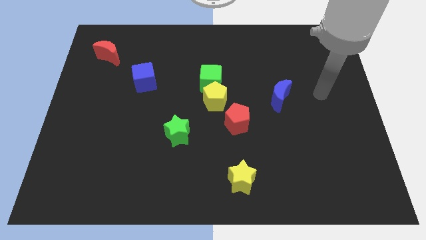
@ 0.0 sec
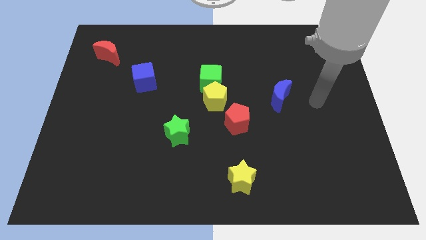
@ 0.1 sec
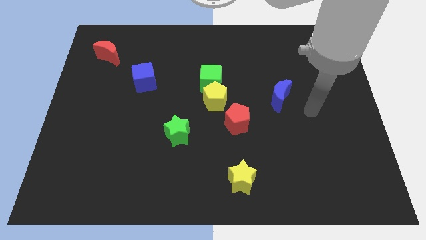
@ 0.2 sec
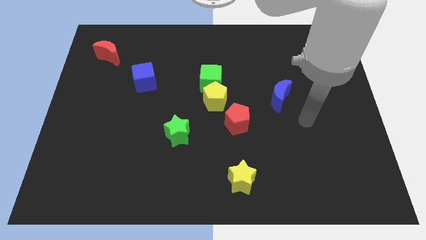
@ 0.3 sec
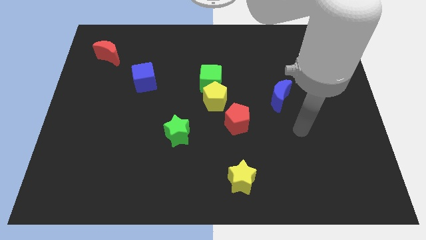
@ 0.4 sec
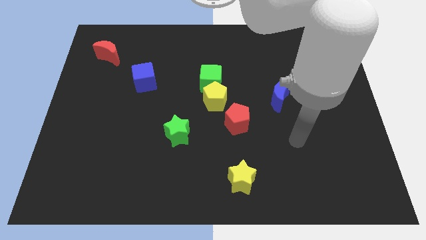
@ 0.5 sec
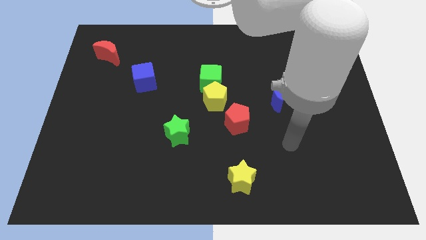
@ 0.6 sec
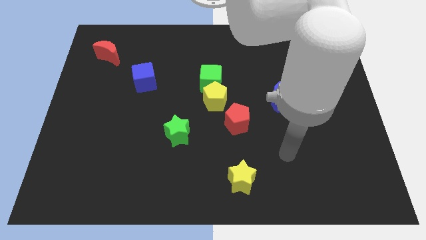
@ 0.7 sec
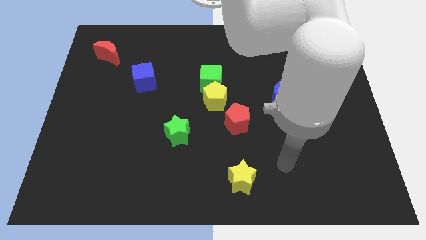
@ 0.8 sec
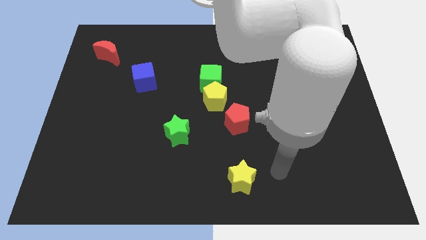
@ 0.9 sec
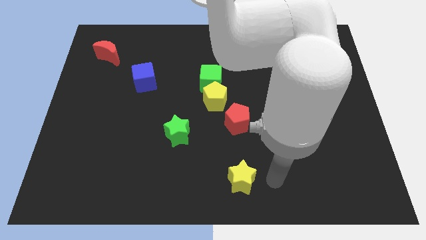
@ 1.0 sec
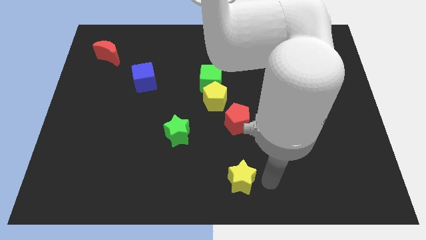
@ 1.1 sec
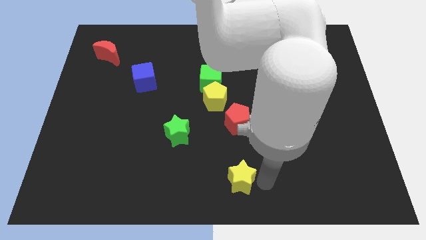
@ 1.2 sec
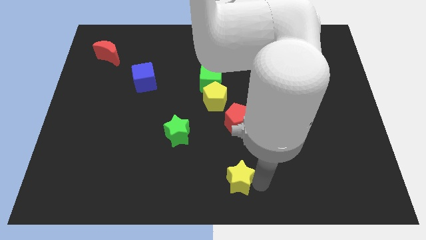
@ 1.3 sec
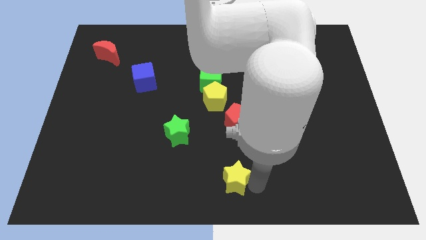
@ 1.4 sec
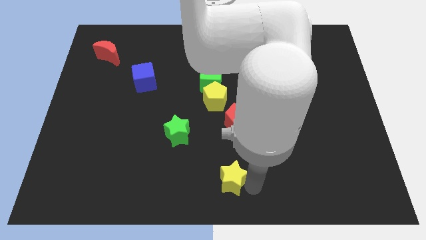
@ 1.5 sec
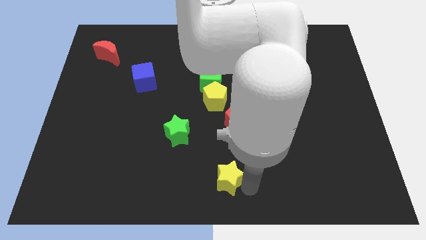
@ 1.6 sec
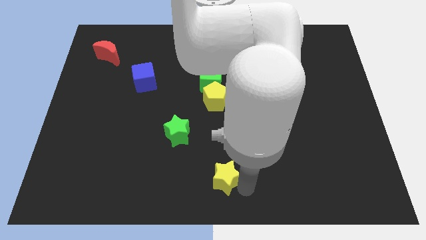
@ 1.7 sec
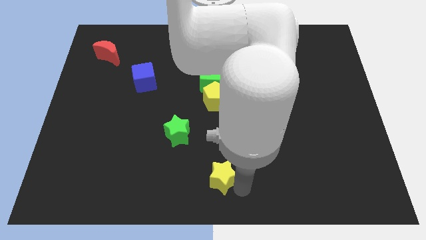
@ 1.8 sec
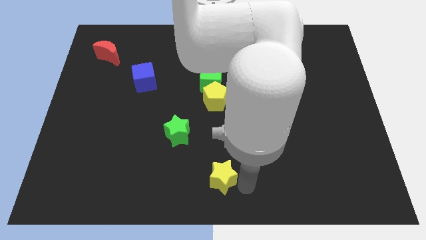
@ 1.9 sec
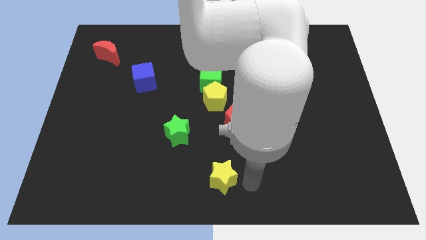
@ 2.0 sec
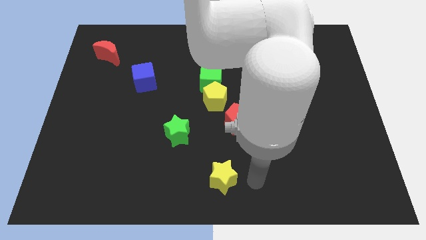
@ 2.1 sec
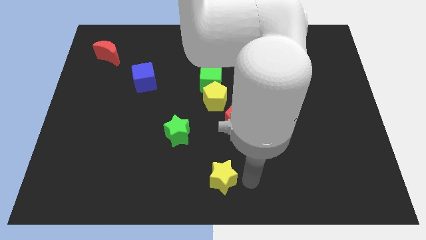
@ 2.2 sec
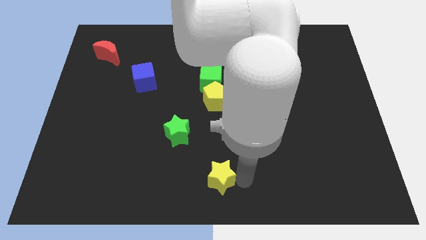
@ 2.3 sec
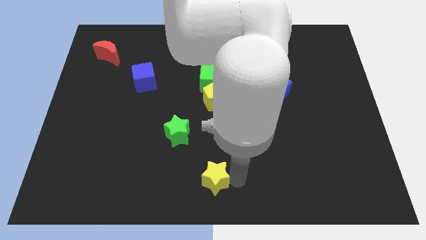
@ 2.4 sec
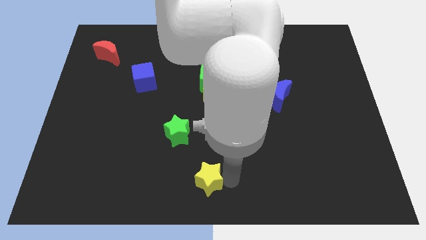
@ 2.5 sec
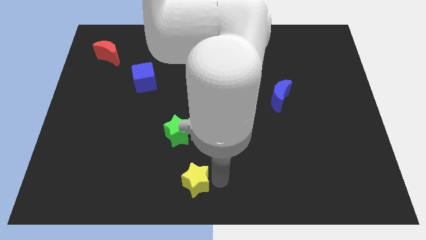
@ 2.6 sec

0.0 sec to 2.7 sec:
move the yellow star slightly left

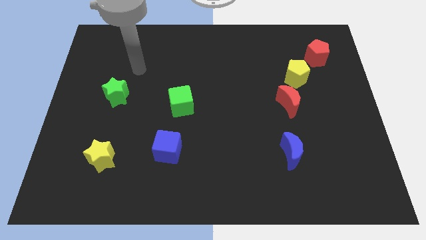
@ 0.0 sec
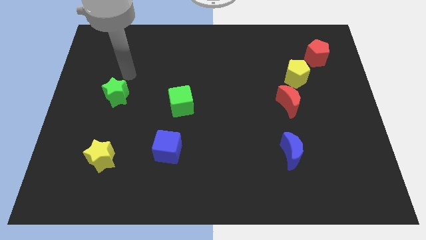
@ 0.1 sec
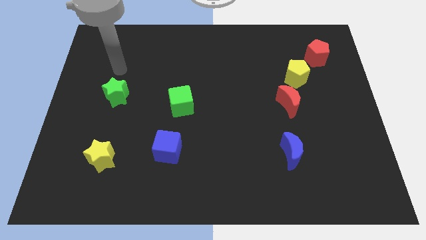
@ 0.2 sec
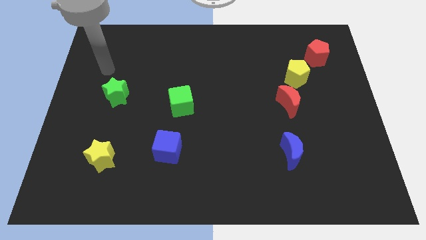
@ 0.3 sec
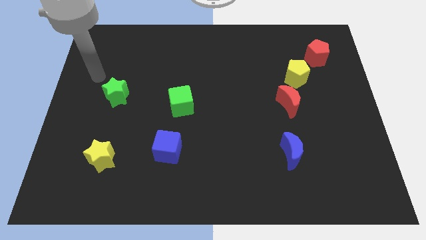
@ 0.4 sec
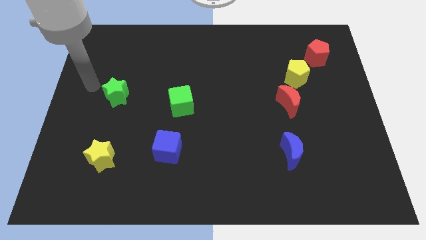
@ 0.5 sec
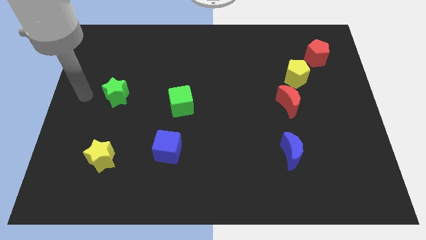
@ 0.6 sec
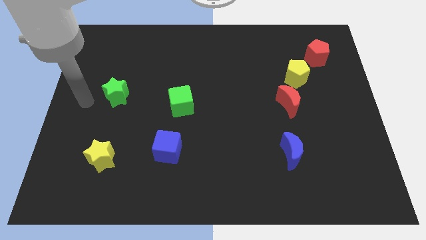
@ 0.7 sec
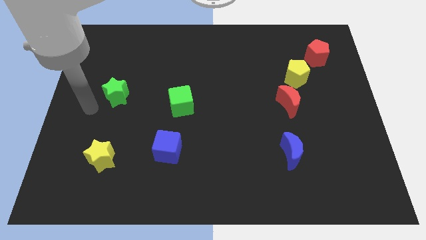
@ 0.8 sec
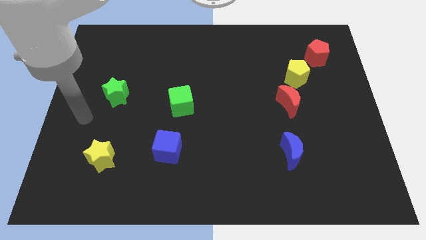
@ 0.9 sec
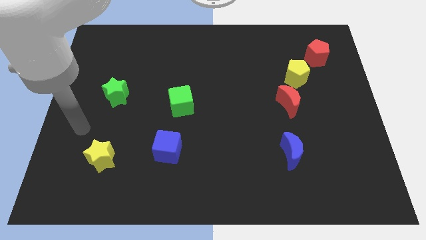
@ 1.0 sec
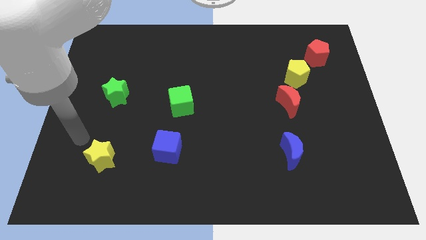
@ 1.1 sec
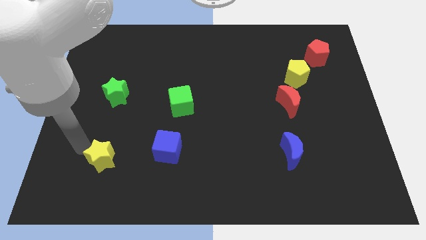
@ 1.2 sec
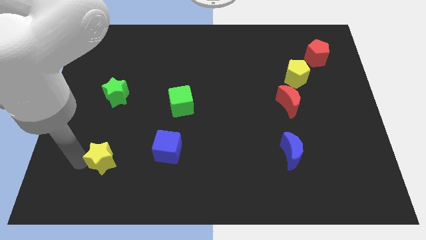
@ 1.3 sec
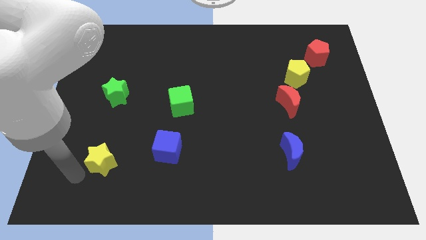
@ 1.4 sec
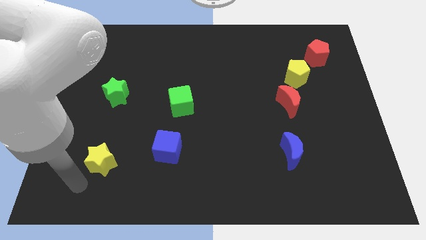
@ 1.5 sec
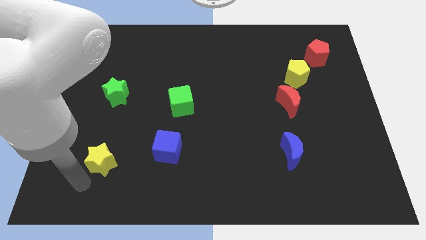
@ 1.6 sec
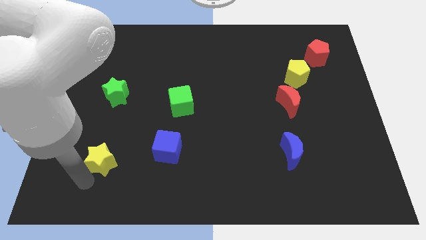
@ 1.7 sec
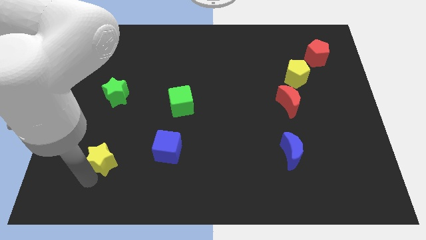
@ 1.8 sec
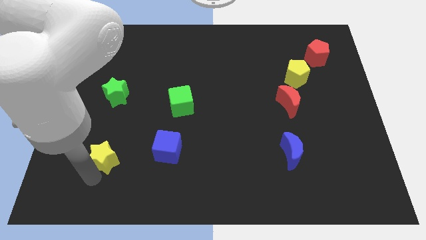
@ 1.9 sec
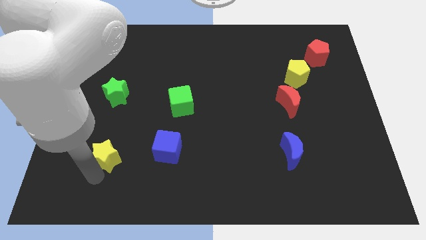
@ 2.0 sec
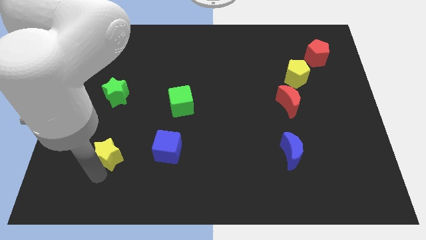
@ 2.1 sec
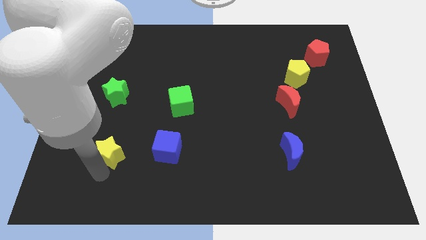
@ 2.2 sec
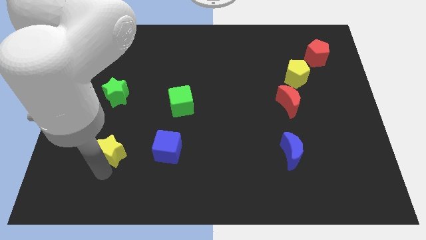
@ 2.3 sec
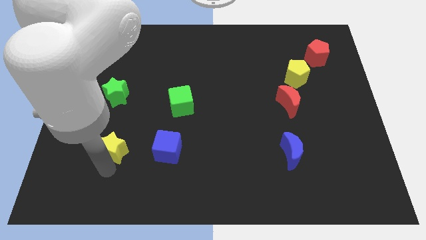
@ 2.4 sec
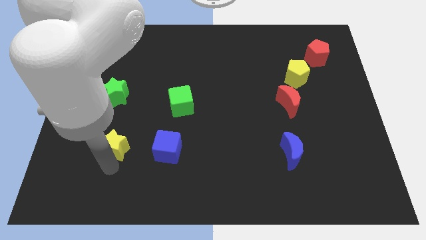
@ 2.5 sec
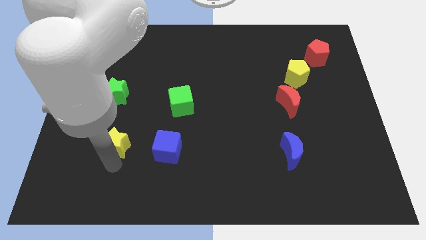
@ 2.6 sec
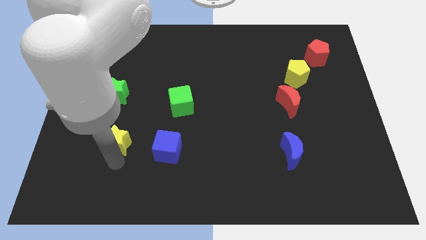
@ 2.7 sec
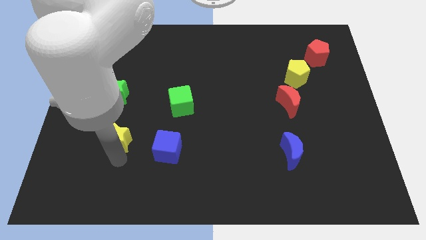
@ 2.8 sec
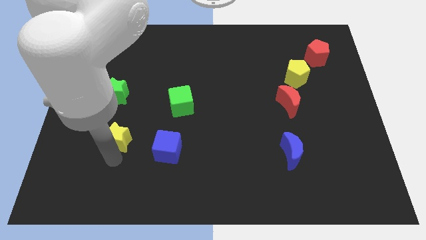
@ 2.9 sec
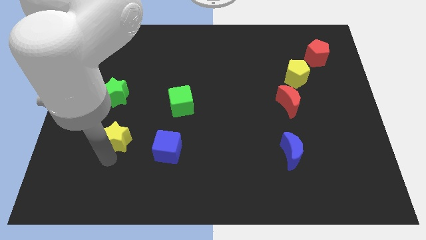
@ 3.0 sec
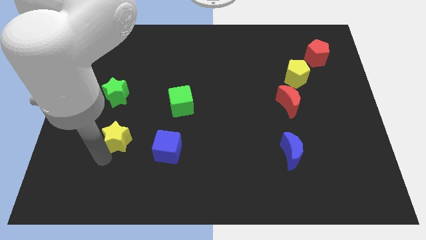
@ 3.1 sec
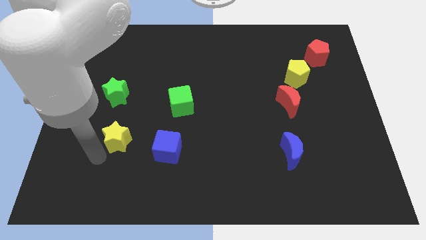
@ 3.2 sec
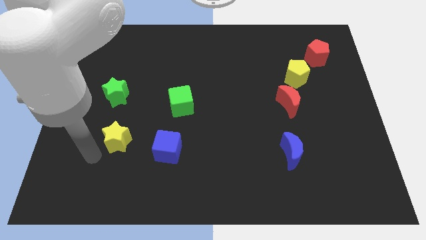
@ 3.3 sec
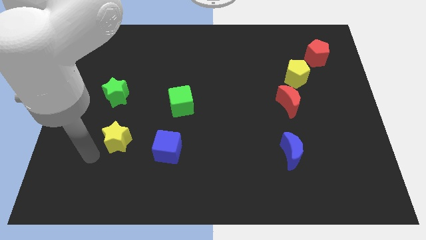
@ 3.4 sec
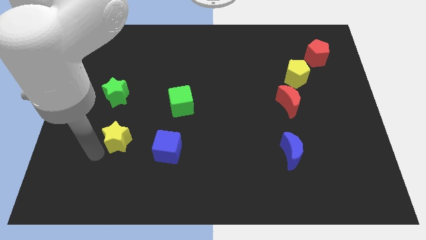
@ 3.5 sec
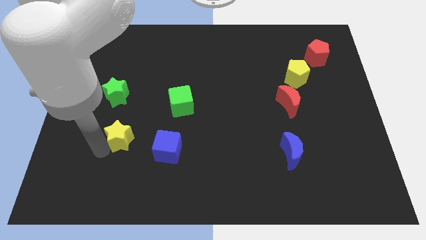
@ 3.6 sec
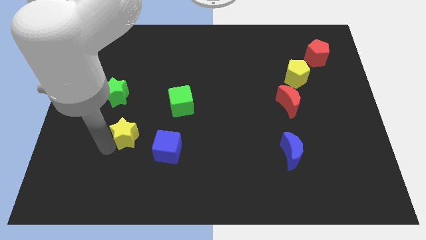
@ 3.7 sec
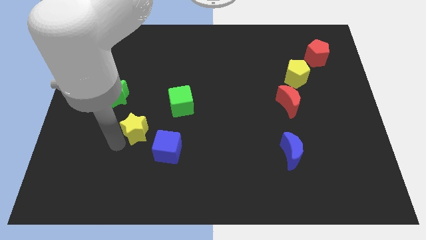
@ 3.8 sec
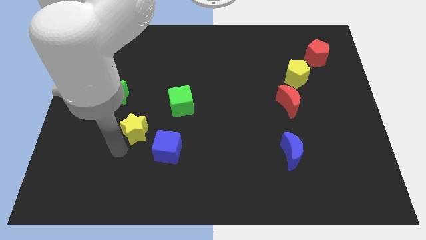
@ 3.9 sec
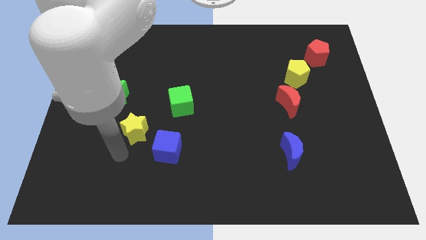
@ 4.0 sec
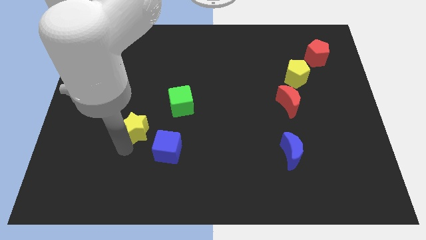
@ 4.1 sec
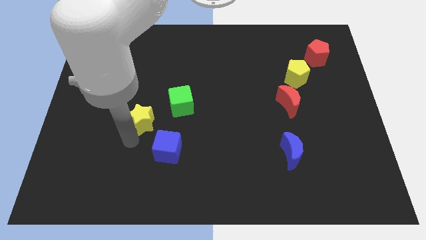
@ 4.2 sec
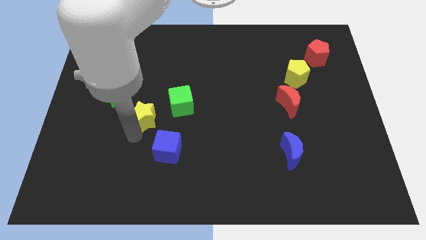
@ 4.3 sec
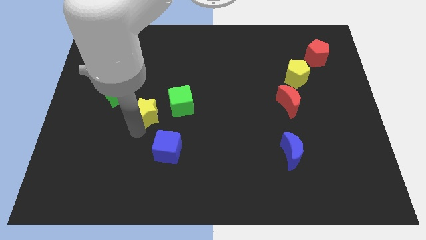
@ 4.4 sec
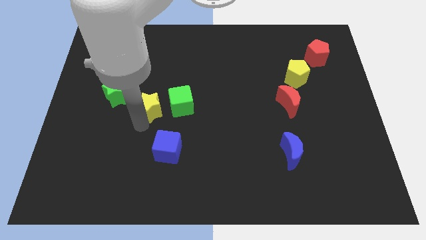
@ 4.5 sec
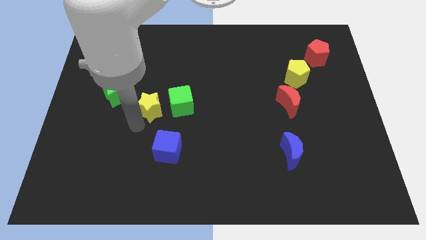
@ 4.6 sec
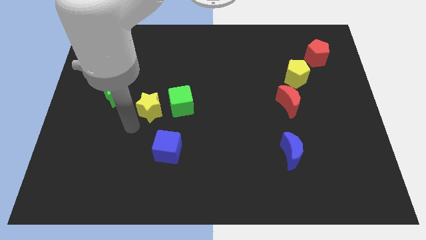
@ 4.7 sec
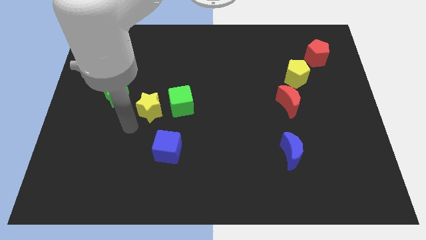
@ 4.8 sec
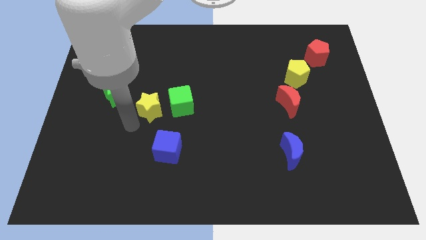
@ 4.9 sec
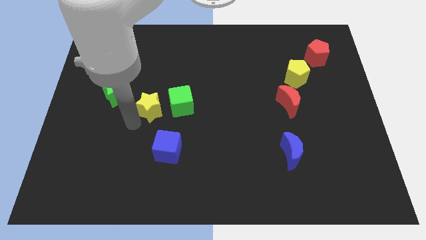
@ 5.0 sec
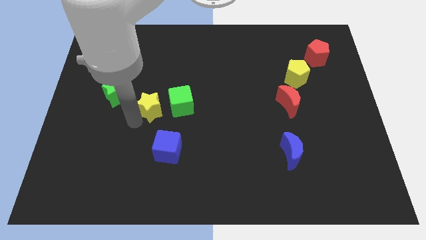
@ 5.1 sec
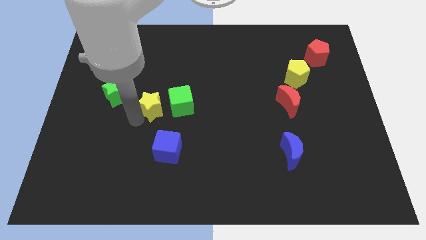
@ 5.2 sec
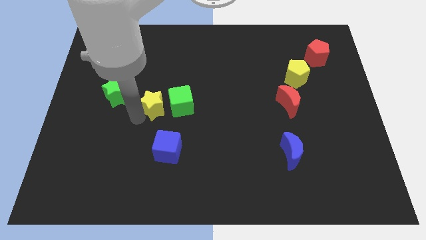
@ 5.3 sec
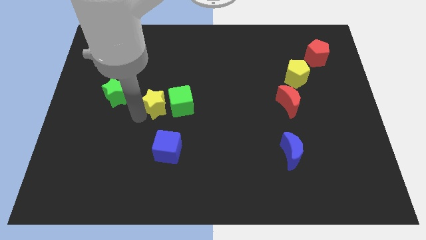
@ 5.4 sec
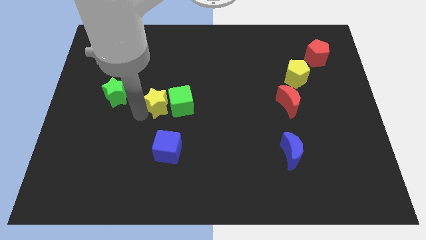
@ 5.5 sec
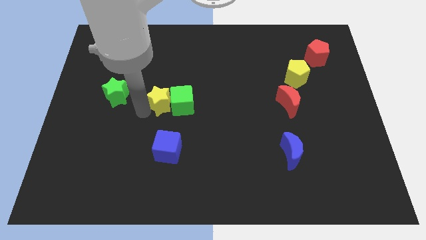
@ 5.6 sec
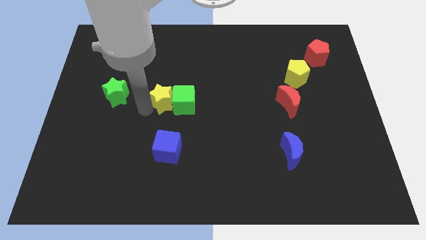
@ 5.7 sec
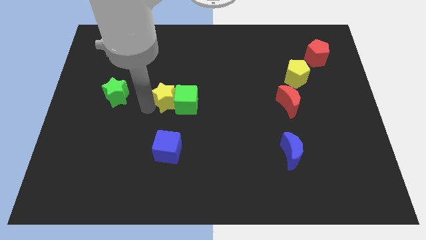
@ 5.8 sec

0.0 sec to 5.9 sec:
move the yellow star upwards and right diagonally
